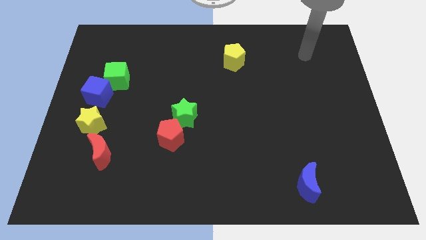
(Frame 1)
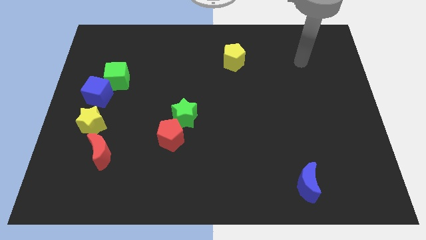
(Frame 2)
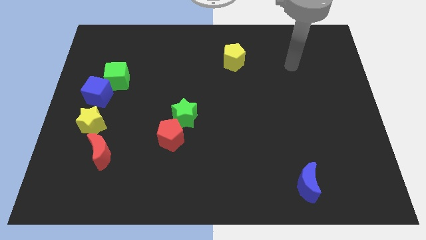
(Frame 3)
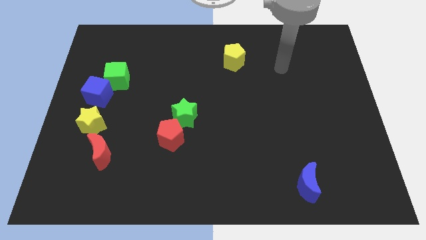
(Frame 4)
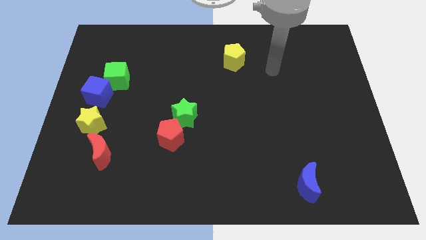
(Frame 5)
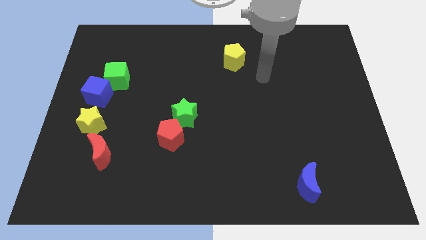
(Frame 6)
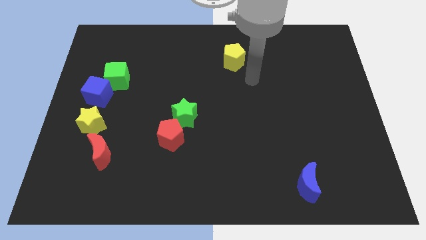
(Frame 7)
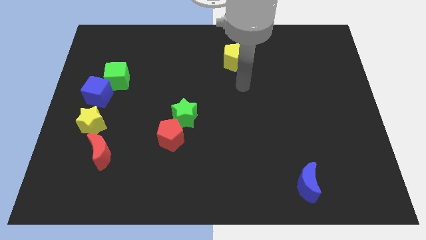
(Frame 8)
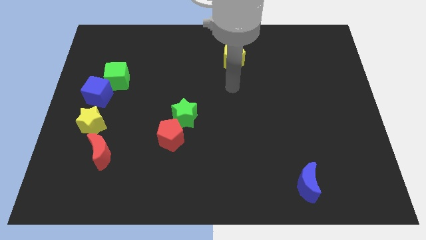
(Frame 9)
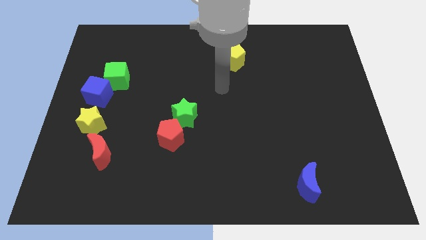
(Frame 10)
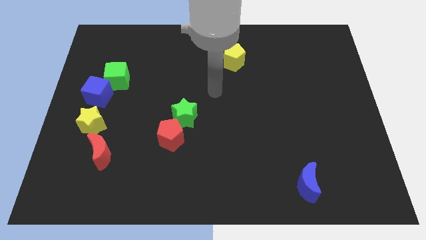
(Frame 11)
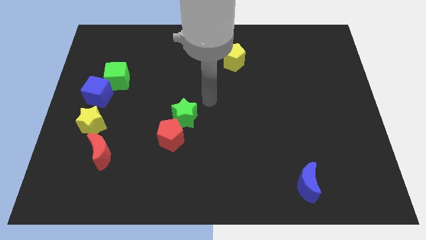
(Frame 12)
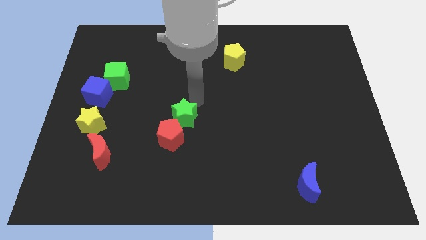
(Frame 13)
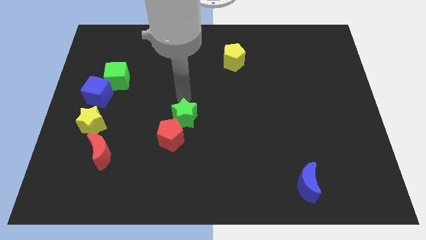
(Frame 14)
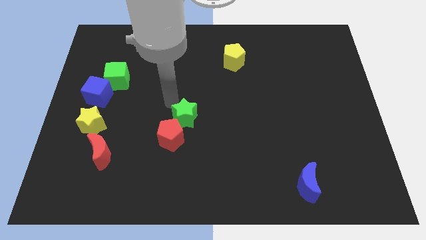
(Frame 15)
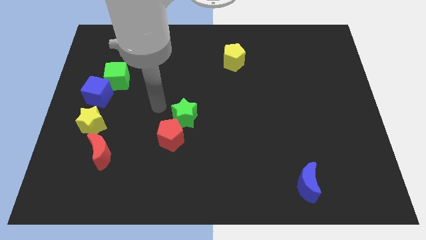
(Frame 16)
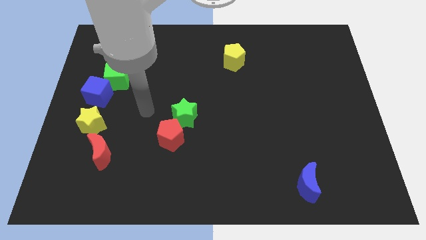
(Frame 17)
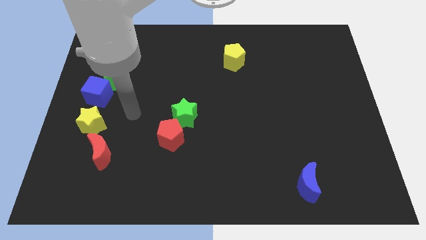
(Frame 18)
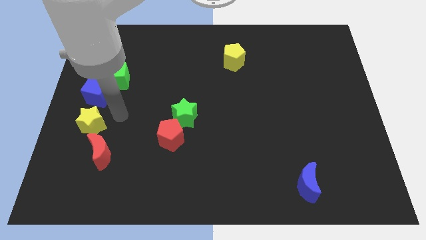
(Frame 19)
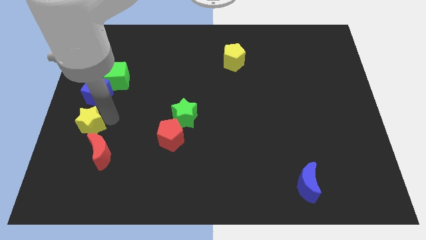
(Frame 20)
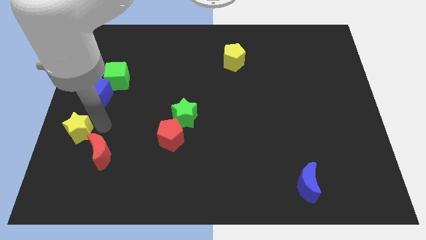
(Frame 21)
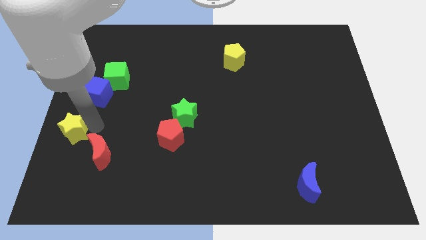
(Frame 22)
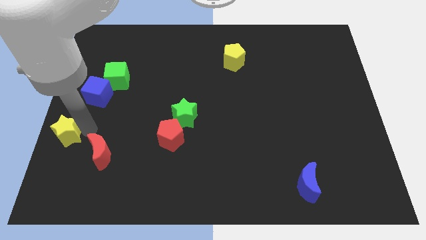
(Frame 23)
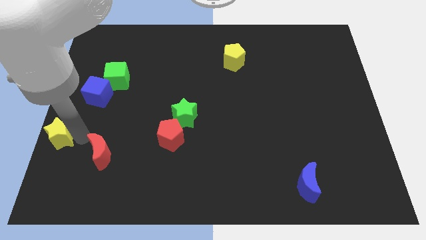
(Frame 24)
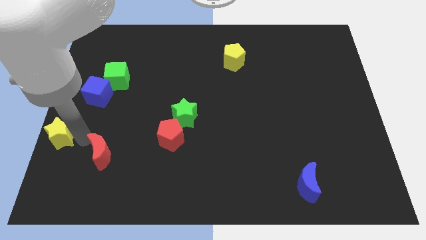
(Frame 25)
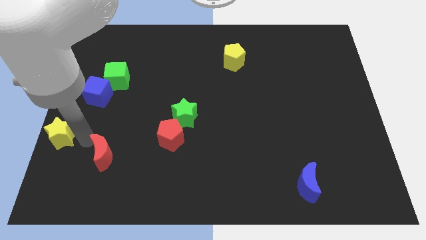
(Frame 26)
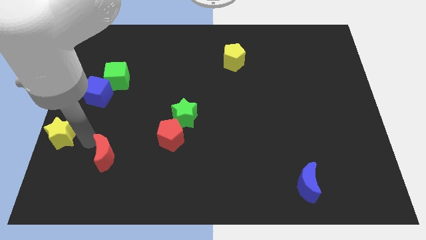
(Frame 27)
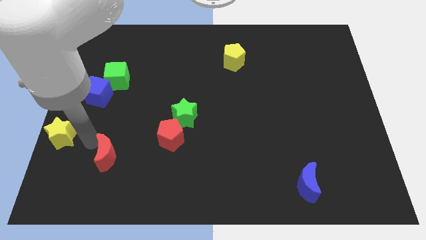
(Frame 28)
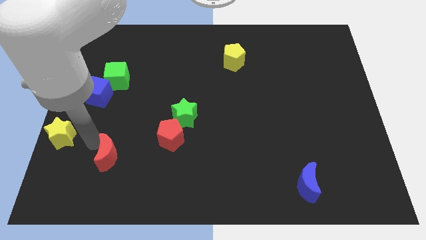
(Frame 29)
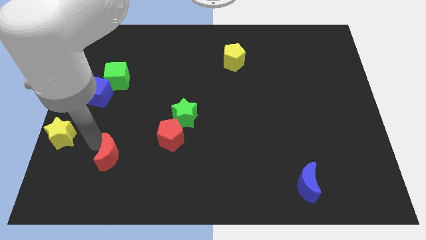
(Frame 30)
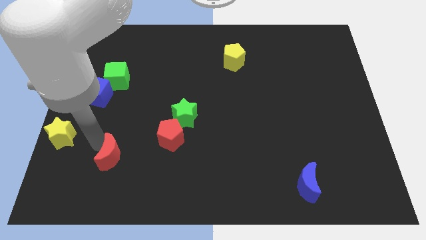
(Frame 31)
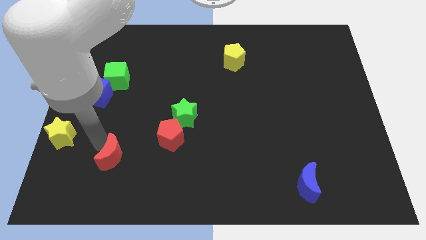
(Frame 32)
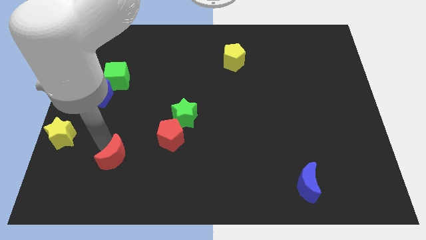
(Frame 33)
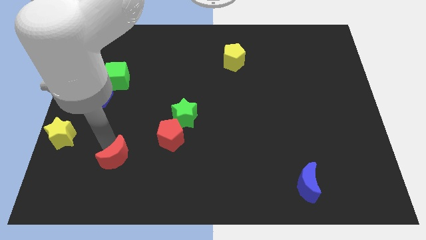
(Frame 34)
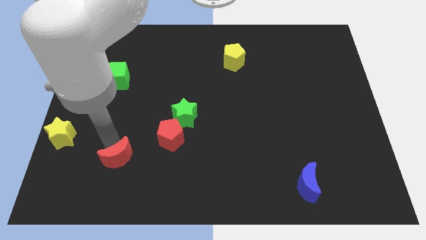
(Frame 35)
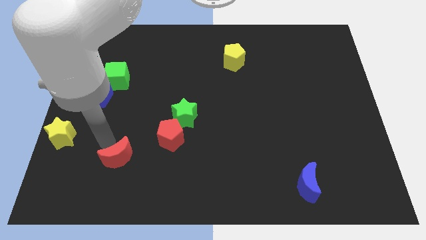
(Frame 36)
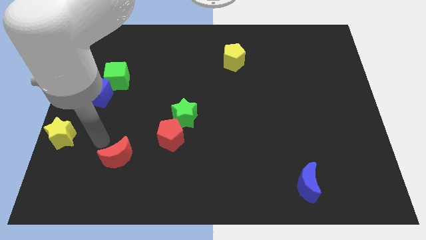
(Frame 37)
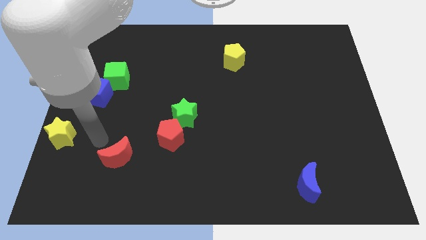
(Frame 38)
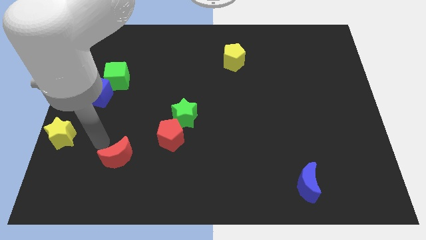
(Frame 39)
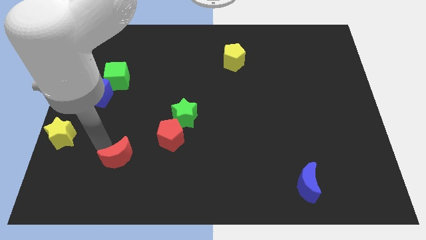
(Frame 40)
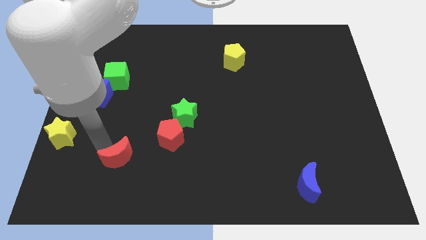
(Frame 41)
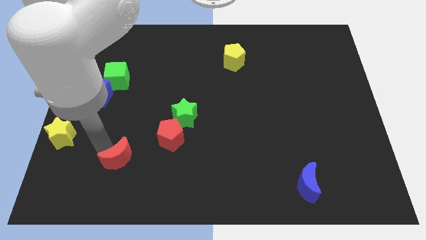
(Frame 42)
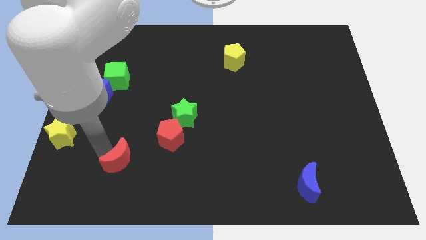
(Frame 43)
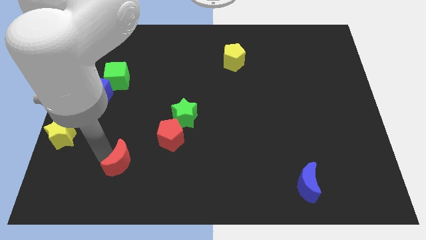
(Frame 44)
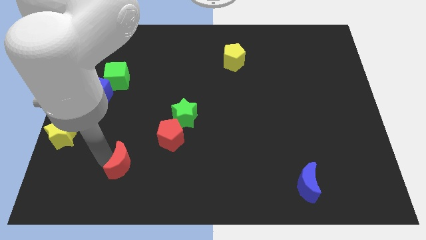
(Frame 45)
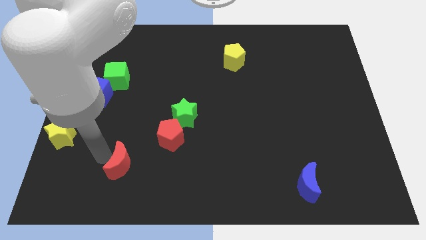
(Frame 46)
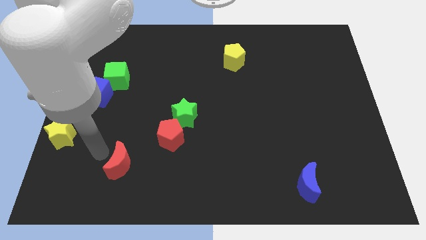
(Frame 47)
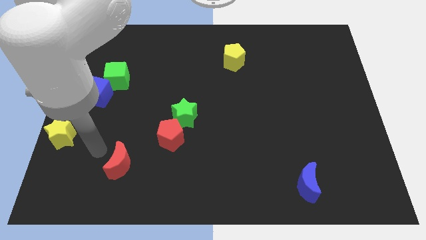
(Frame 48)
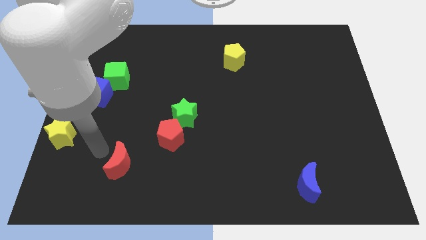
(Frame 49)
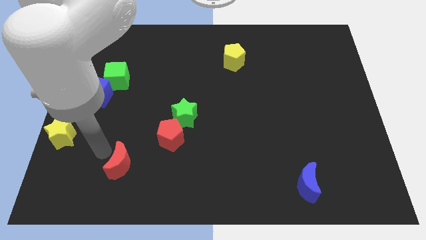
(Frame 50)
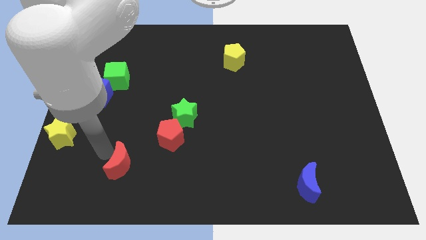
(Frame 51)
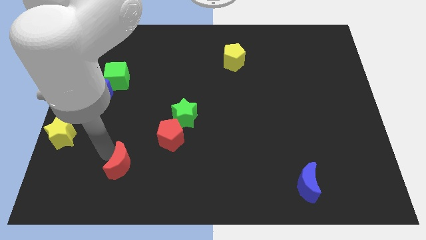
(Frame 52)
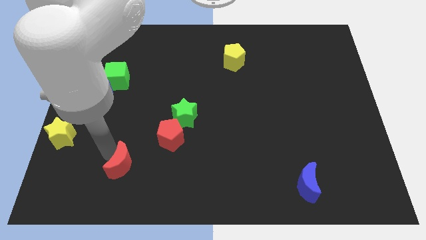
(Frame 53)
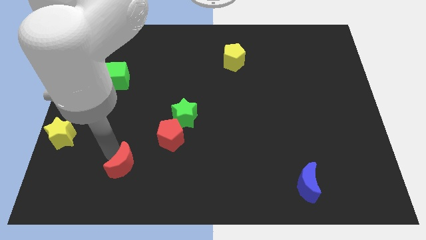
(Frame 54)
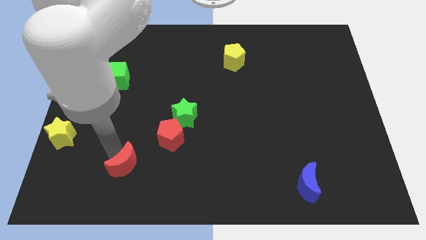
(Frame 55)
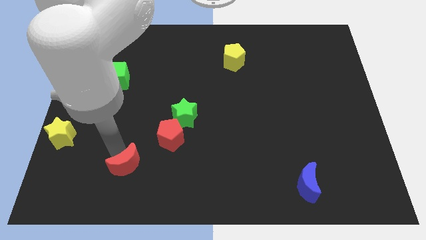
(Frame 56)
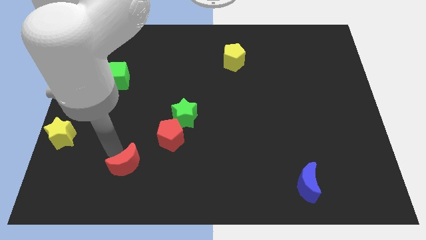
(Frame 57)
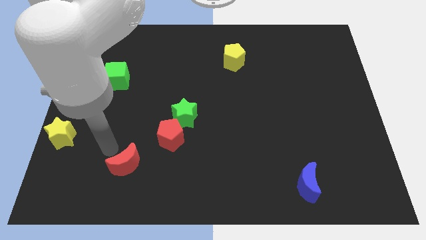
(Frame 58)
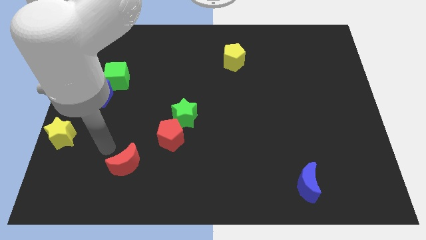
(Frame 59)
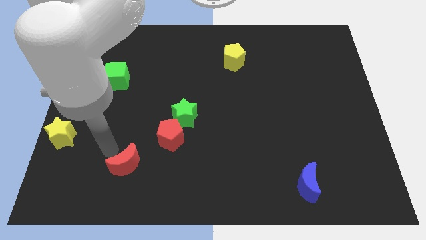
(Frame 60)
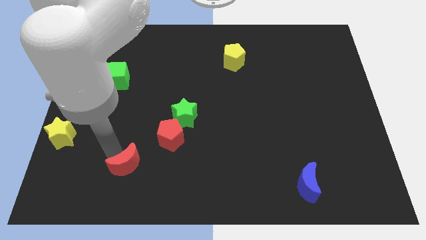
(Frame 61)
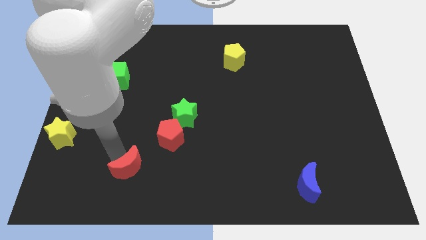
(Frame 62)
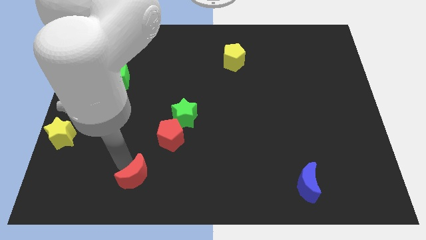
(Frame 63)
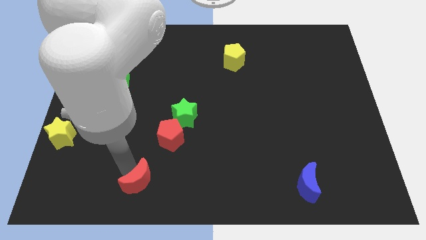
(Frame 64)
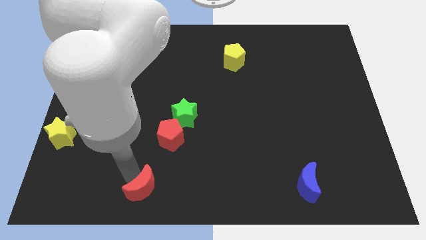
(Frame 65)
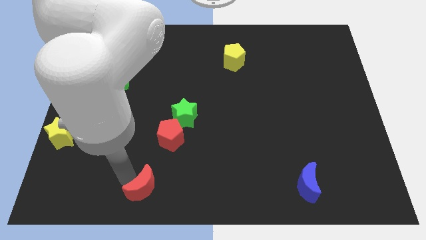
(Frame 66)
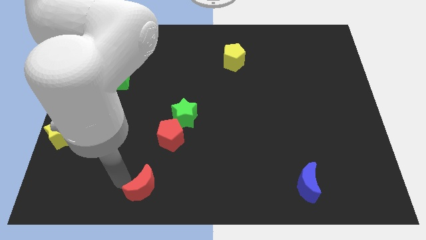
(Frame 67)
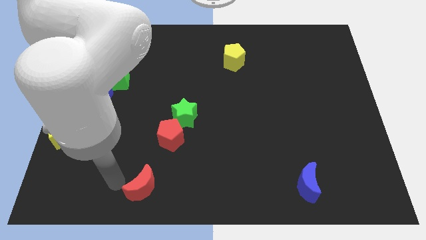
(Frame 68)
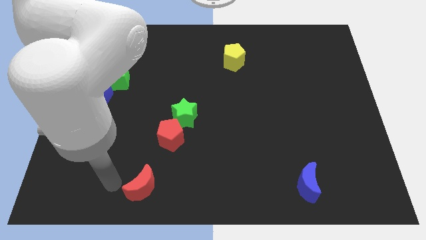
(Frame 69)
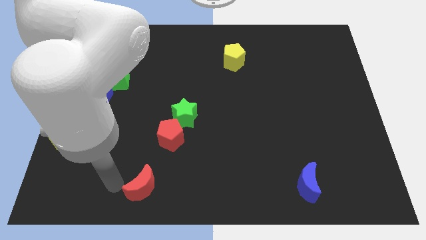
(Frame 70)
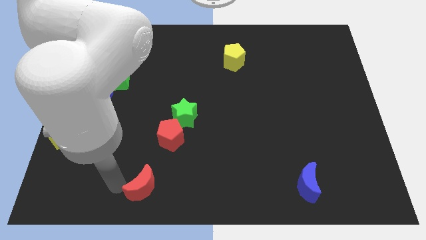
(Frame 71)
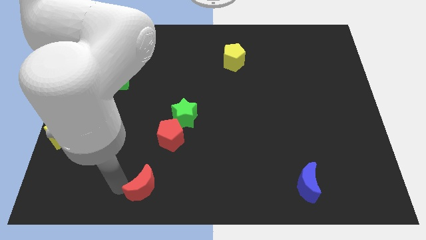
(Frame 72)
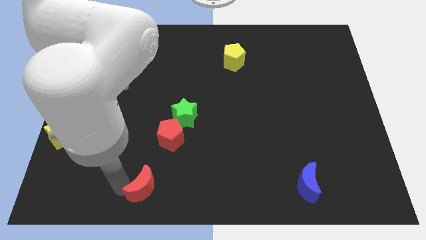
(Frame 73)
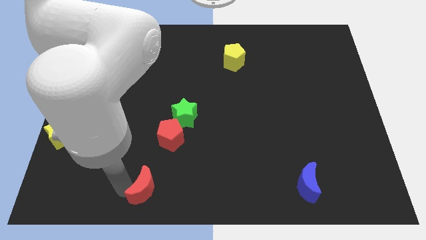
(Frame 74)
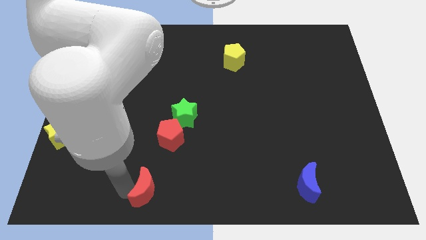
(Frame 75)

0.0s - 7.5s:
push the red moon to the bottom
